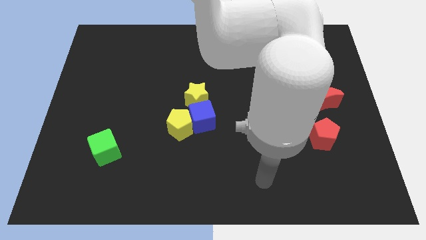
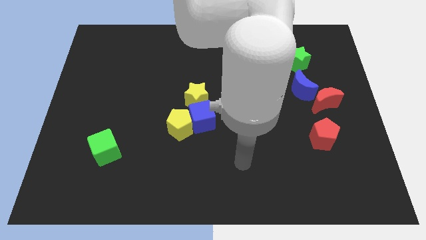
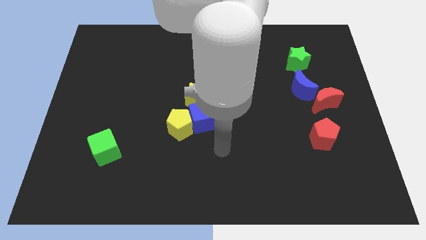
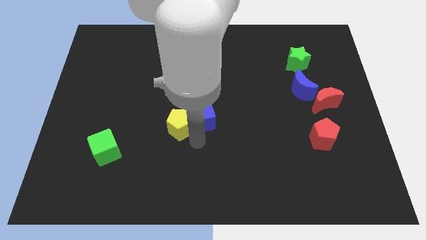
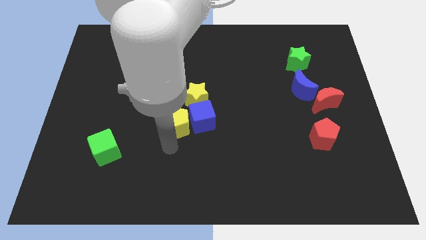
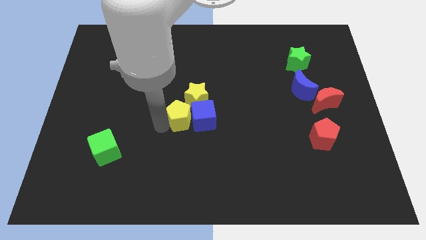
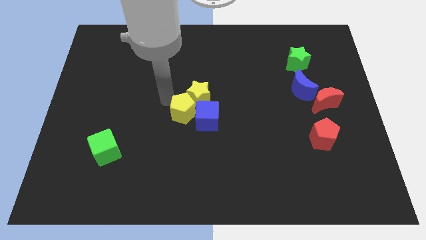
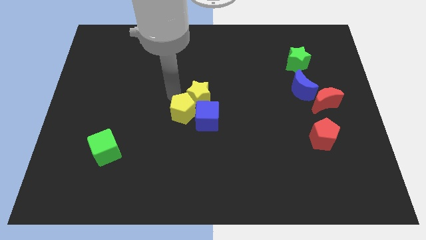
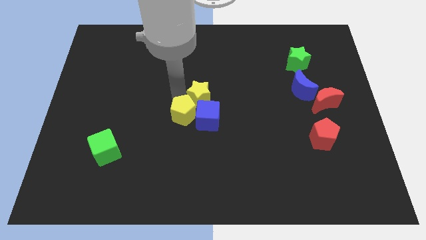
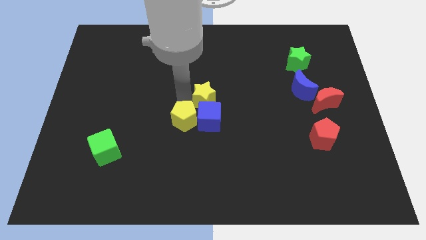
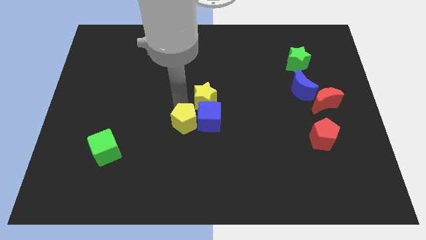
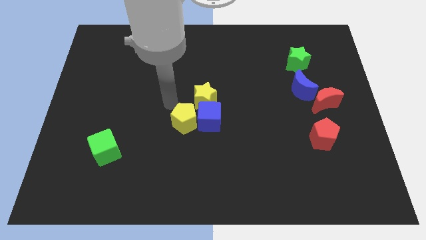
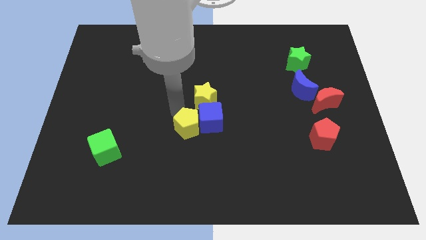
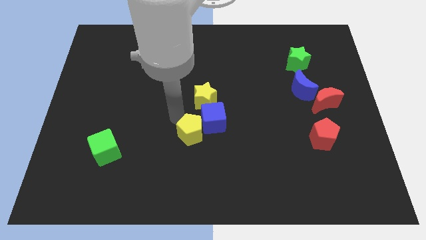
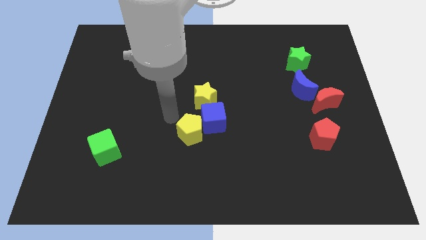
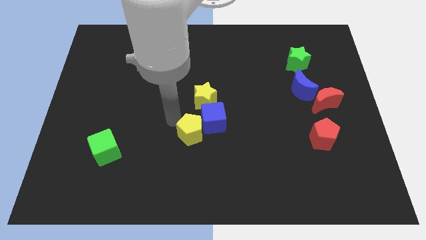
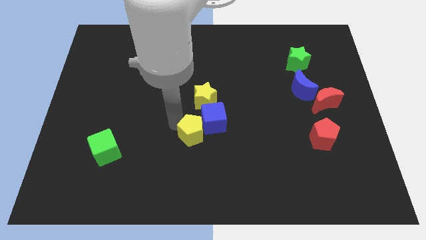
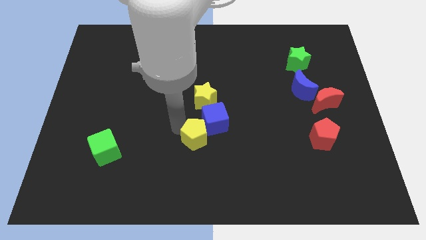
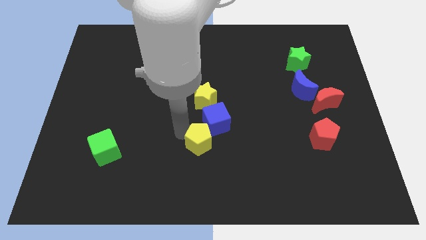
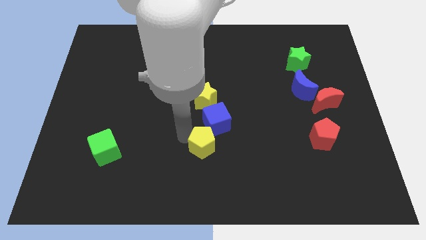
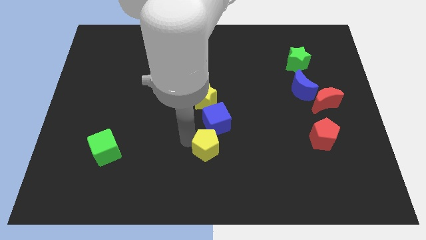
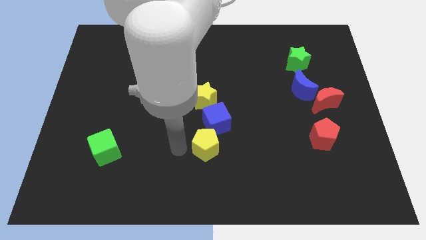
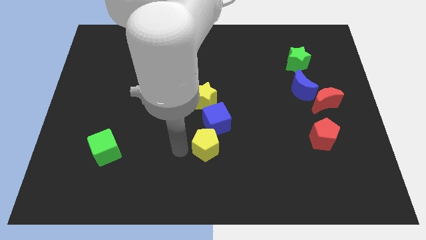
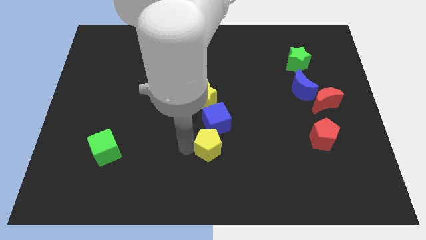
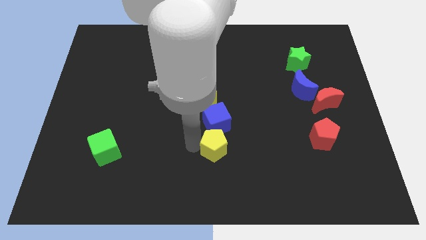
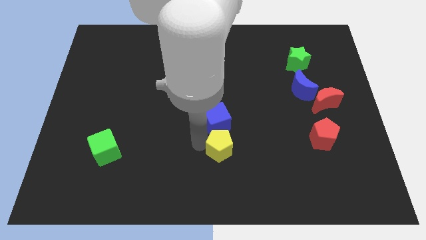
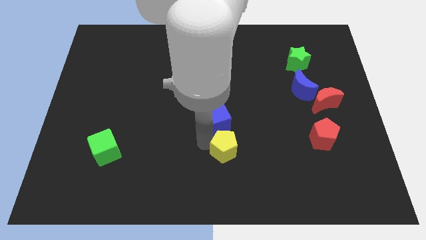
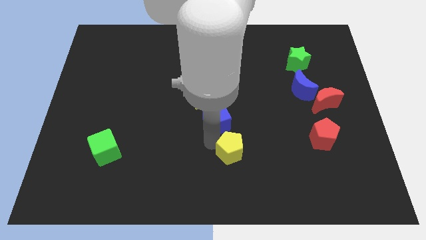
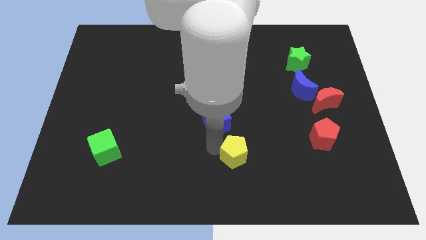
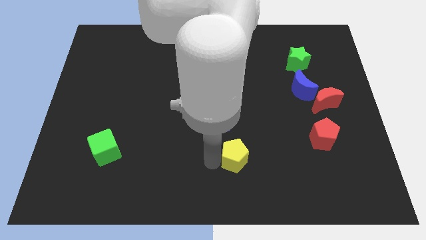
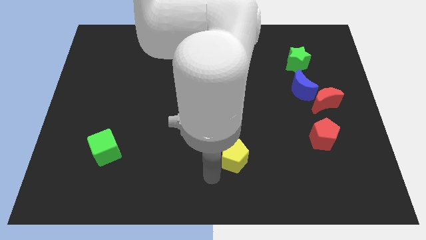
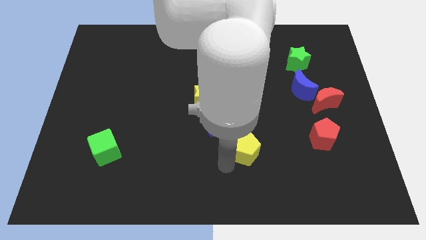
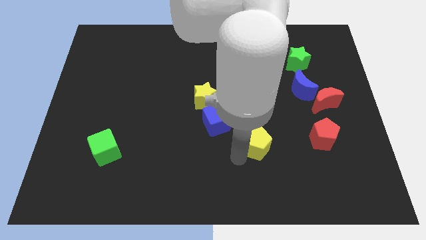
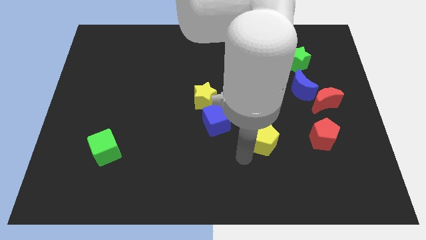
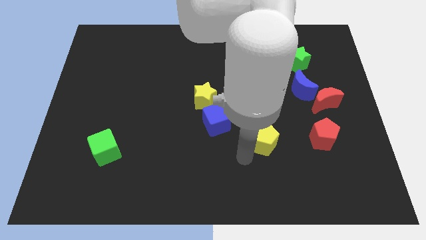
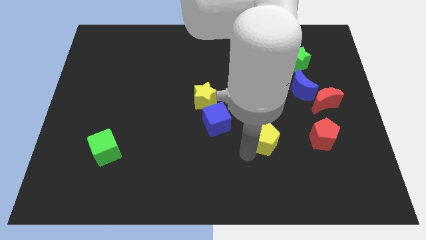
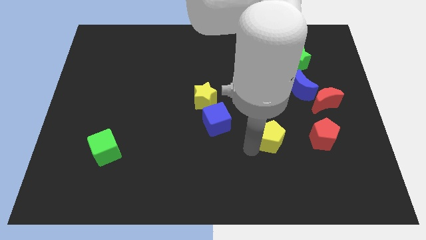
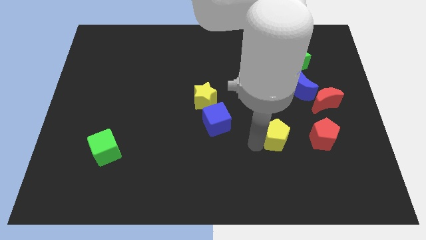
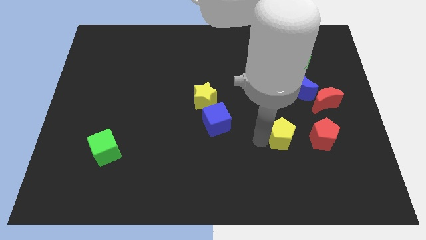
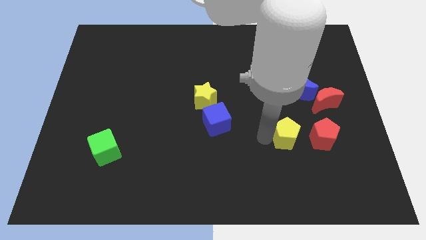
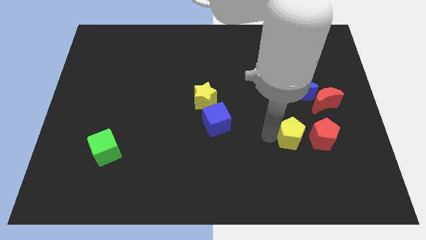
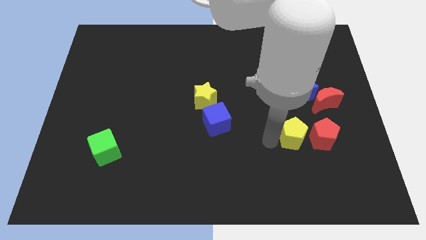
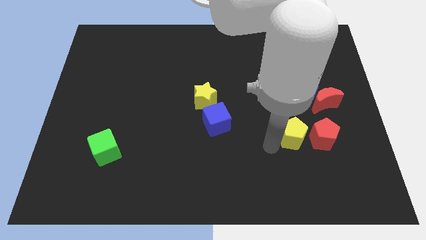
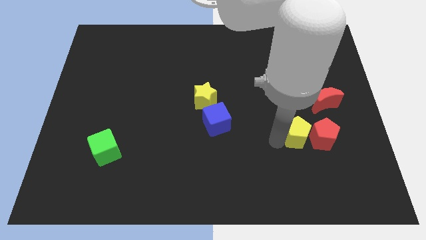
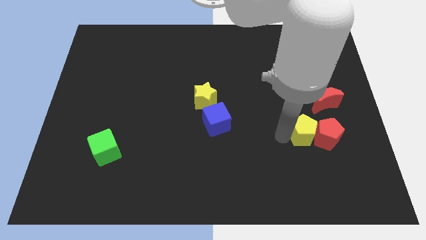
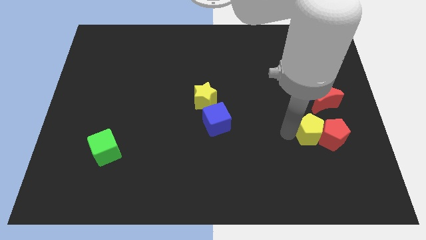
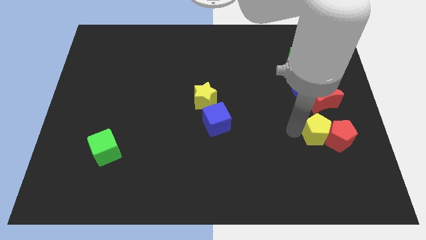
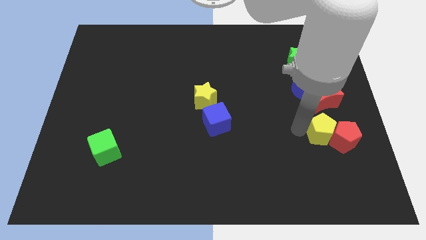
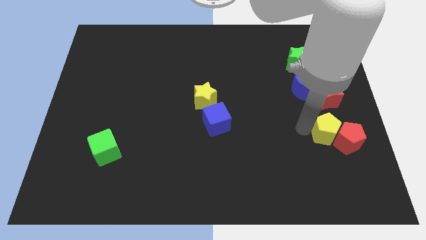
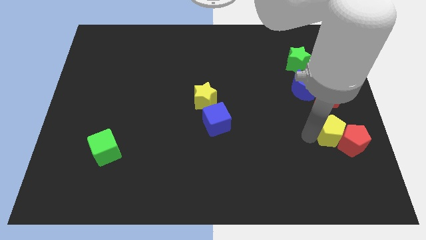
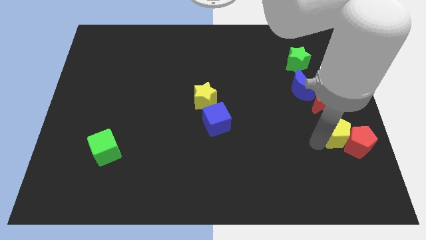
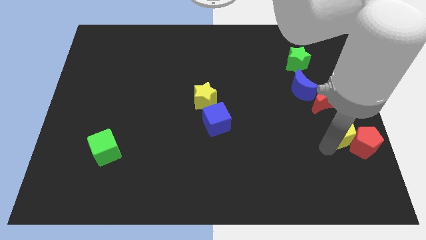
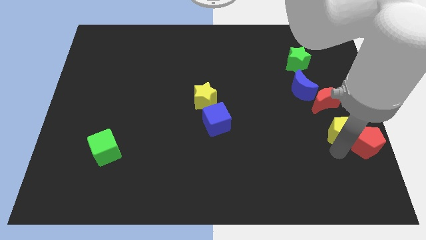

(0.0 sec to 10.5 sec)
put the yellow pentagon to the center right
